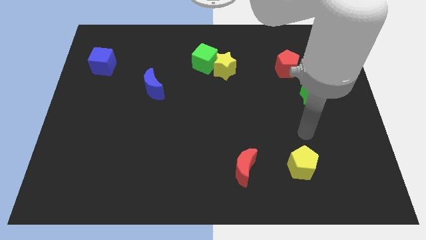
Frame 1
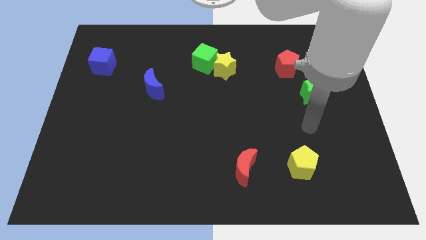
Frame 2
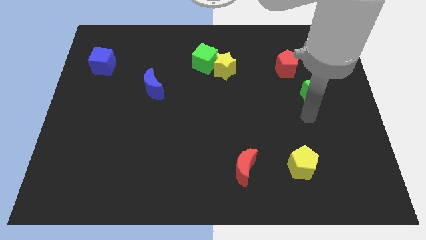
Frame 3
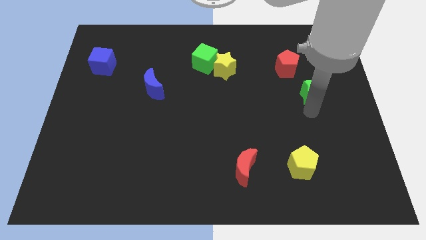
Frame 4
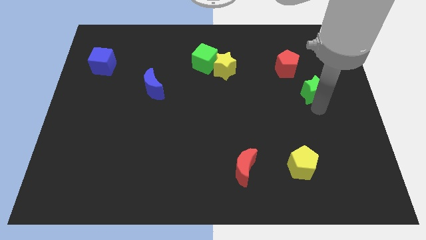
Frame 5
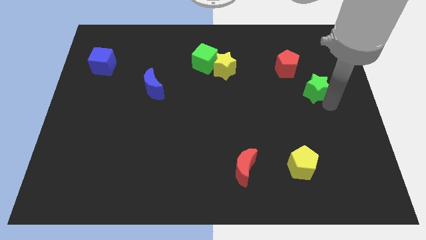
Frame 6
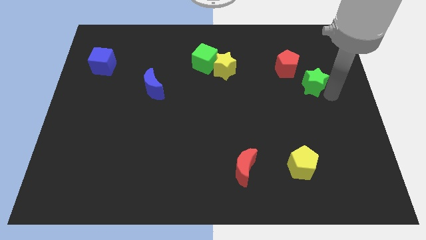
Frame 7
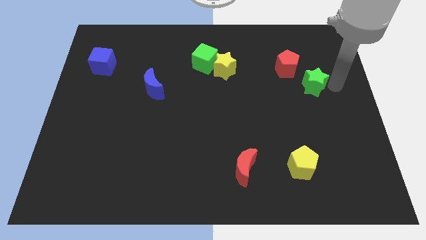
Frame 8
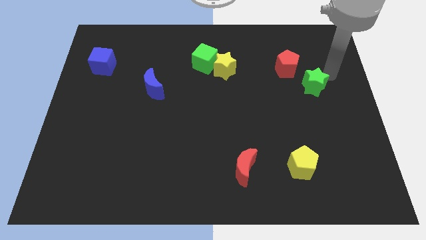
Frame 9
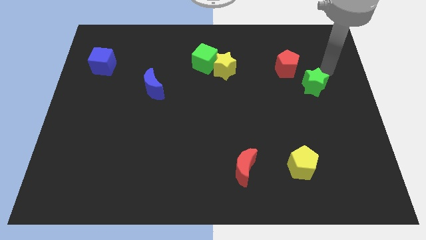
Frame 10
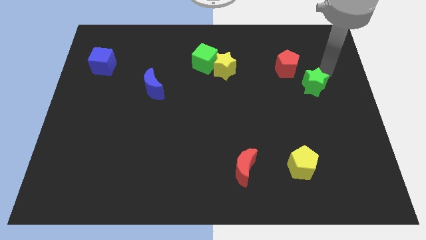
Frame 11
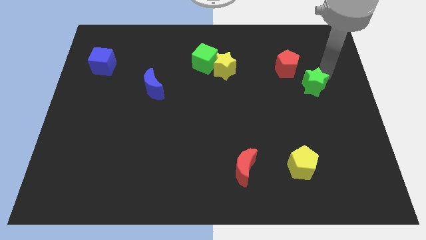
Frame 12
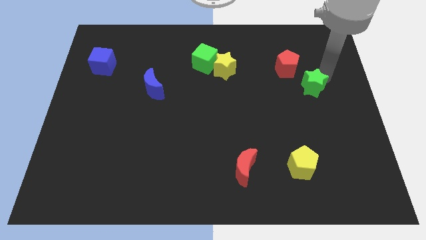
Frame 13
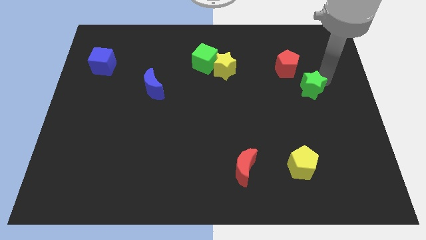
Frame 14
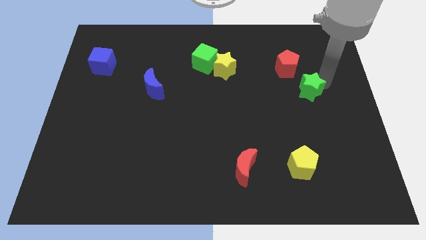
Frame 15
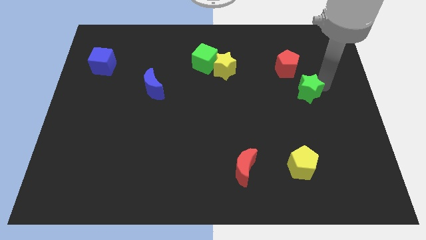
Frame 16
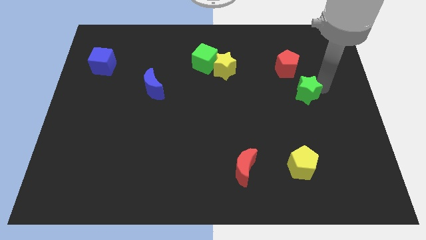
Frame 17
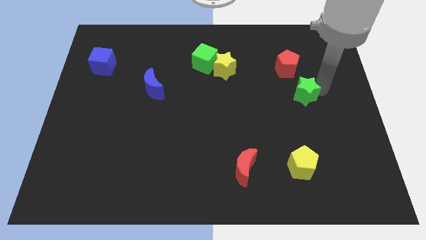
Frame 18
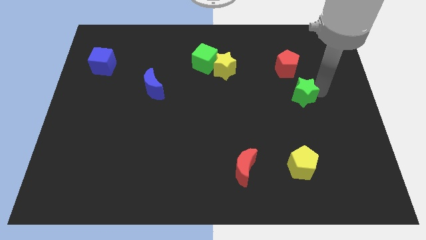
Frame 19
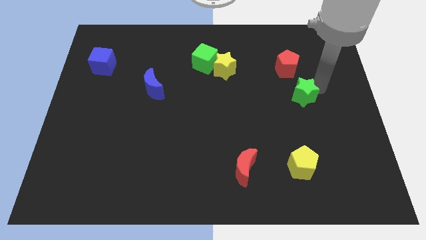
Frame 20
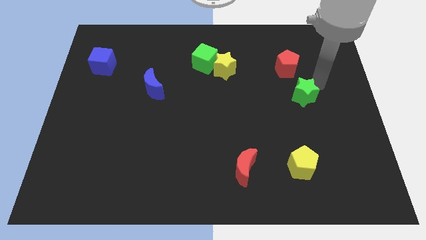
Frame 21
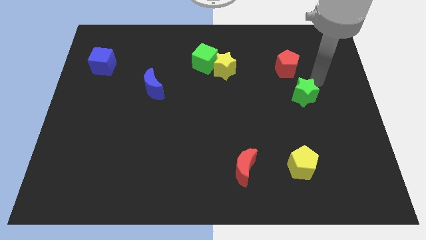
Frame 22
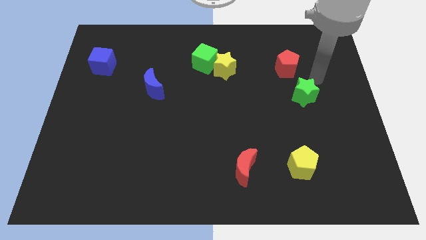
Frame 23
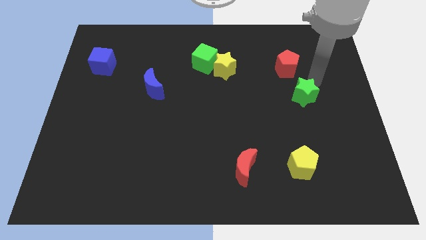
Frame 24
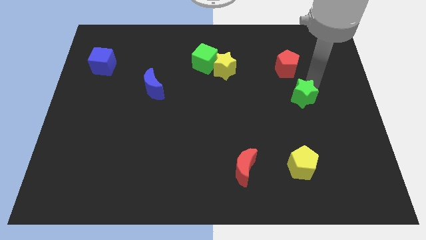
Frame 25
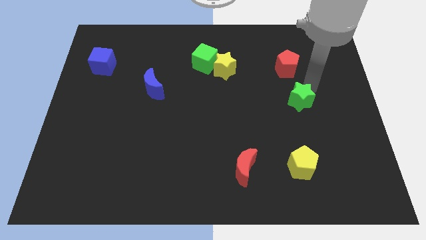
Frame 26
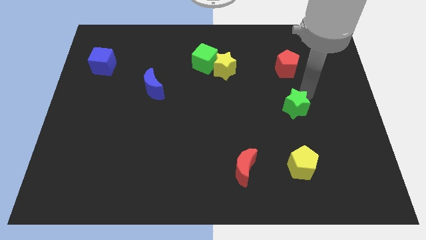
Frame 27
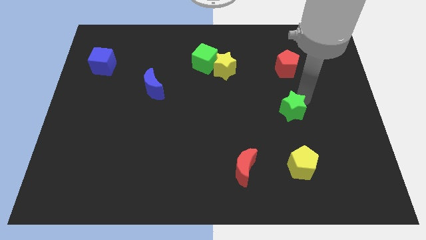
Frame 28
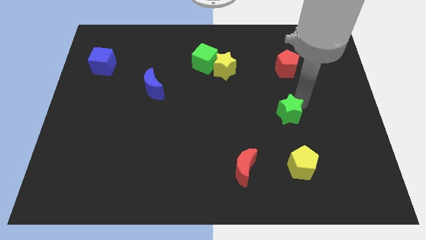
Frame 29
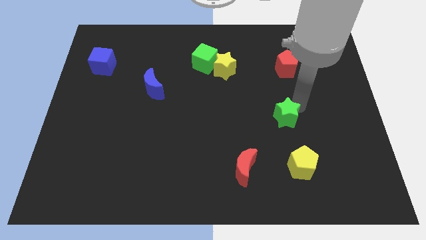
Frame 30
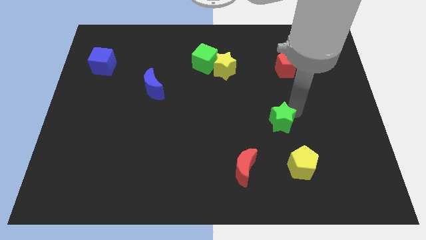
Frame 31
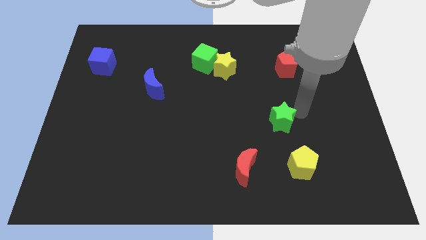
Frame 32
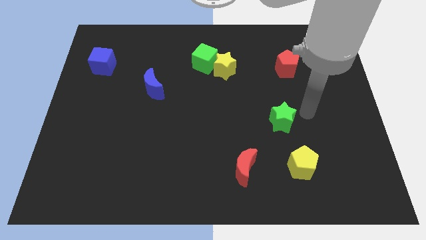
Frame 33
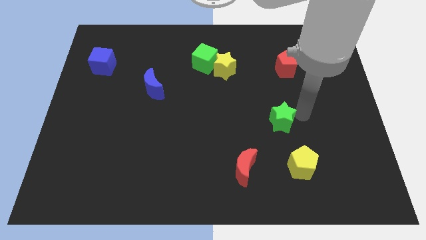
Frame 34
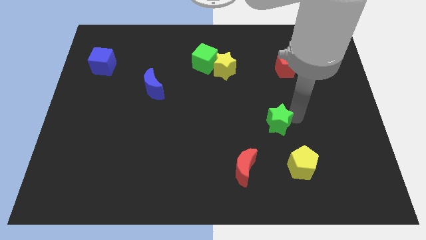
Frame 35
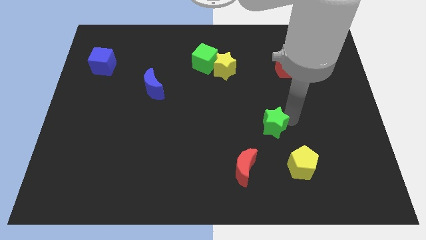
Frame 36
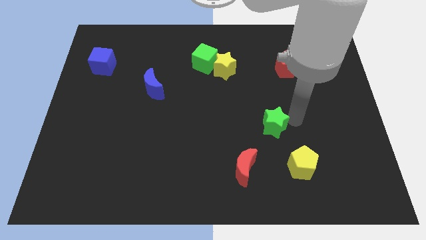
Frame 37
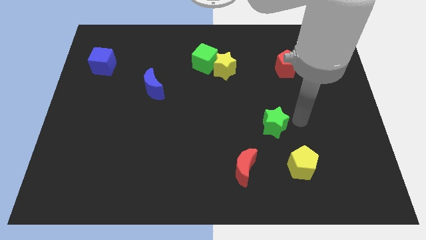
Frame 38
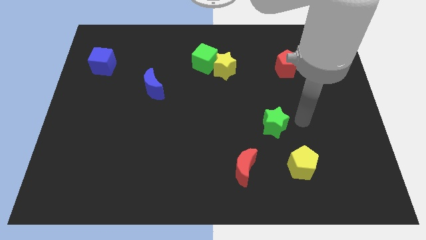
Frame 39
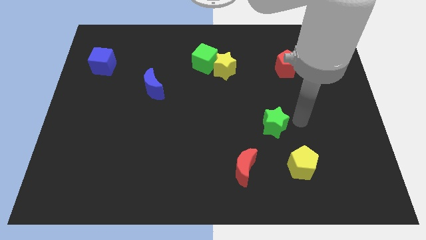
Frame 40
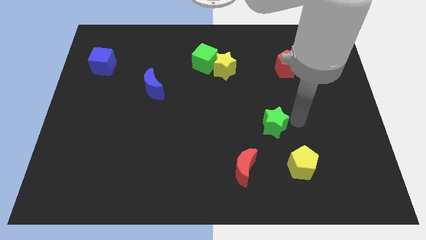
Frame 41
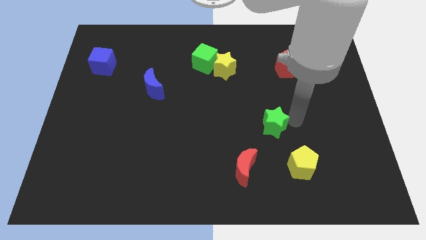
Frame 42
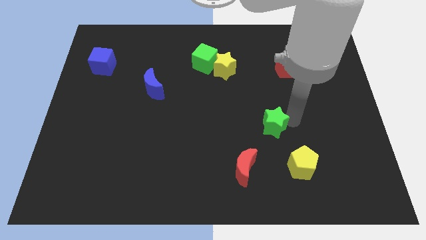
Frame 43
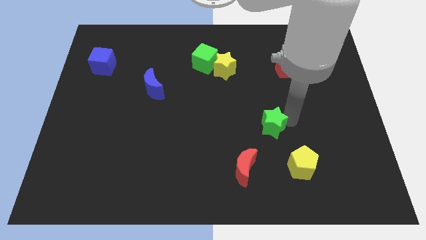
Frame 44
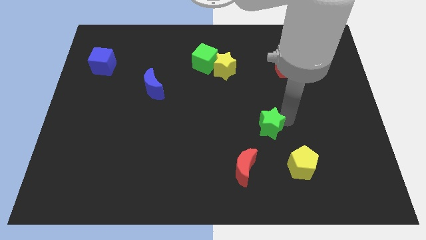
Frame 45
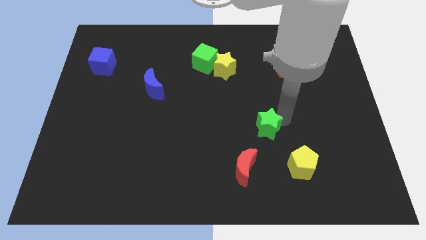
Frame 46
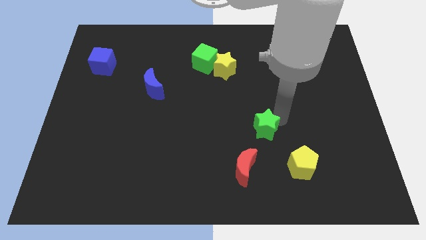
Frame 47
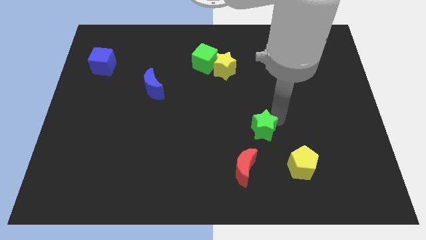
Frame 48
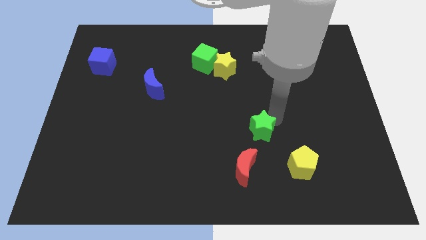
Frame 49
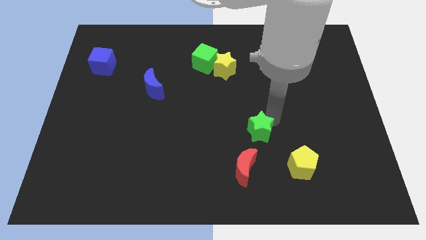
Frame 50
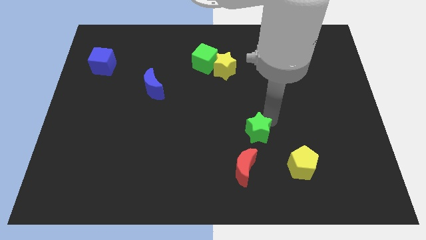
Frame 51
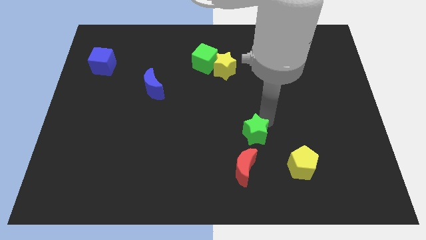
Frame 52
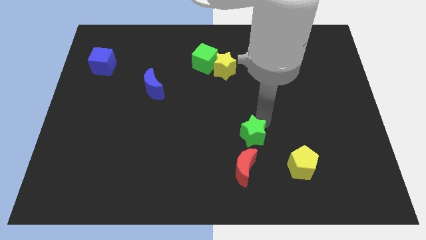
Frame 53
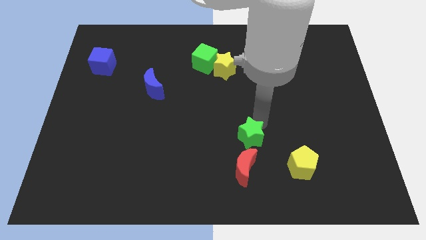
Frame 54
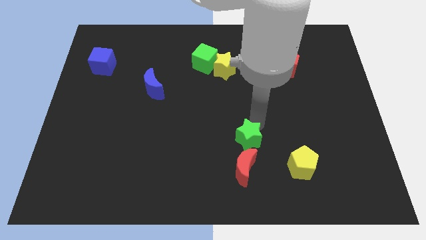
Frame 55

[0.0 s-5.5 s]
move the green star down and to the left

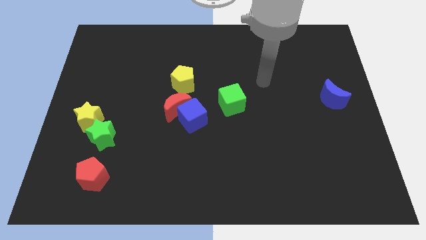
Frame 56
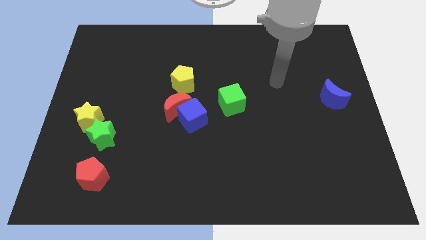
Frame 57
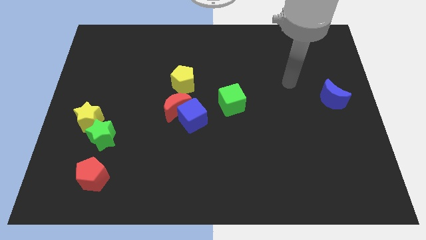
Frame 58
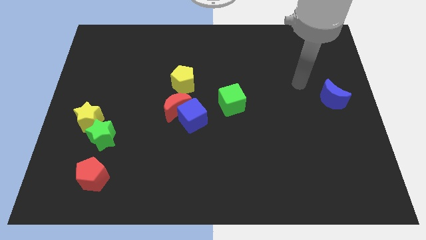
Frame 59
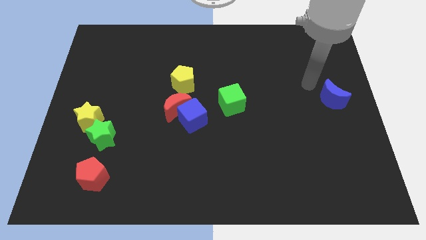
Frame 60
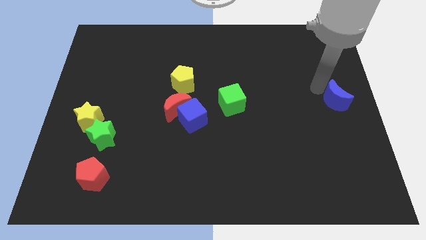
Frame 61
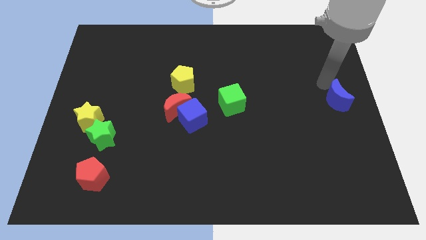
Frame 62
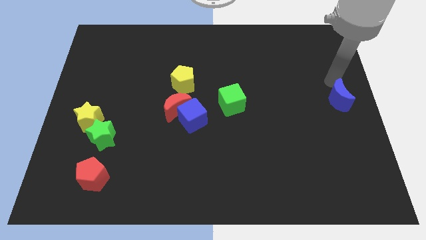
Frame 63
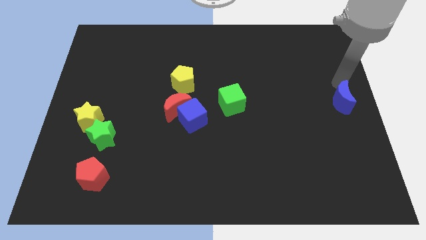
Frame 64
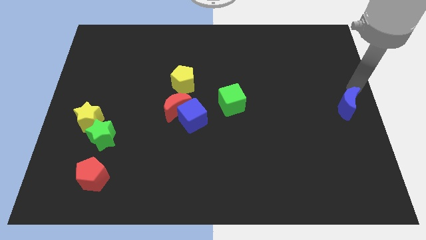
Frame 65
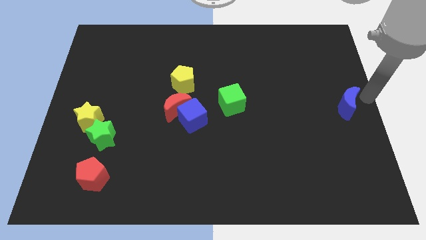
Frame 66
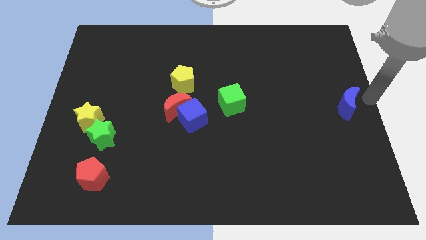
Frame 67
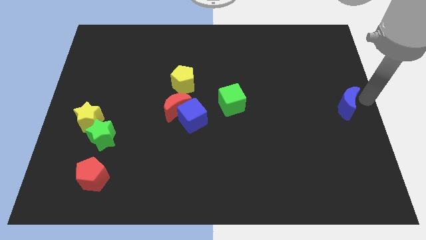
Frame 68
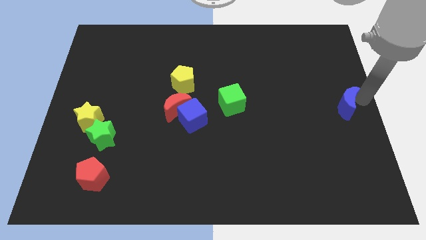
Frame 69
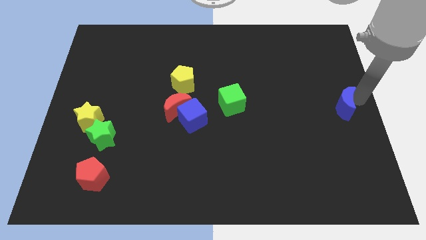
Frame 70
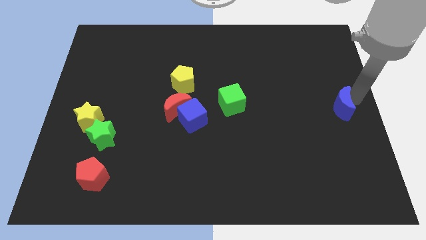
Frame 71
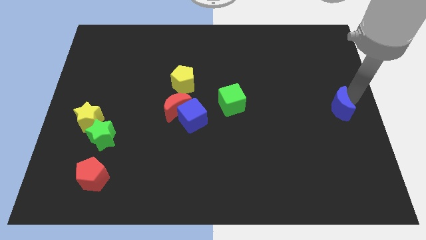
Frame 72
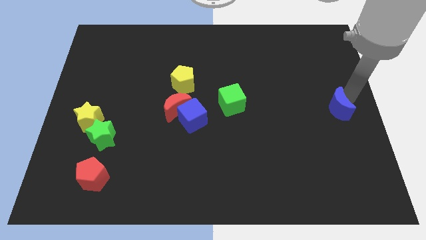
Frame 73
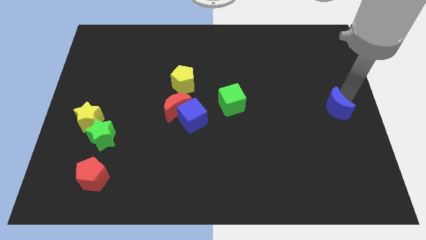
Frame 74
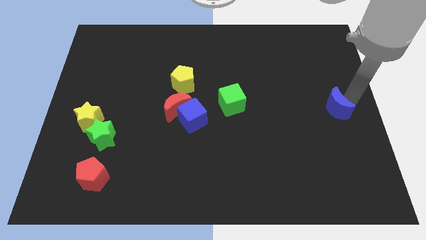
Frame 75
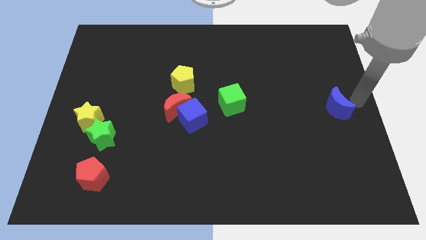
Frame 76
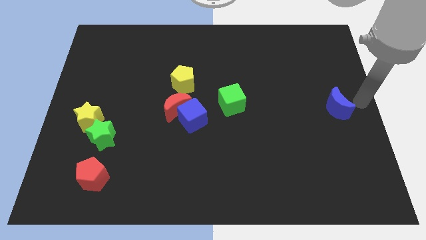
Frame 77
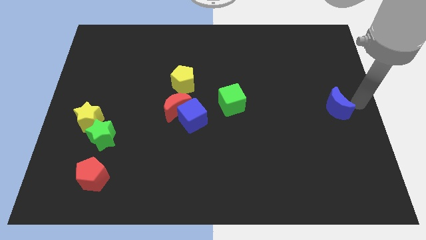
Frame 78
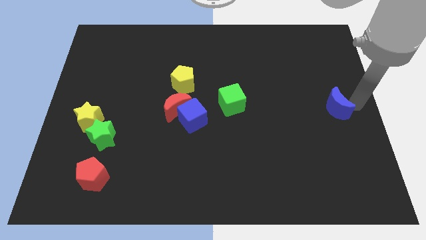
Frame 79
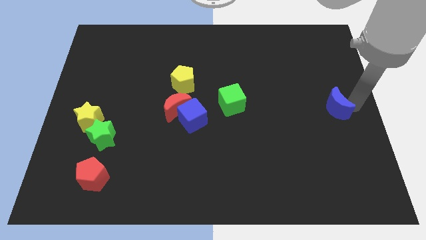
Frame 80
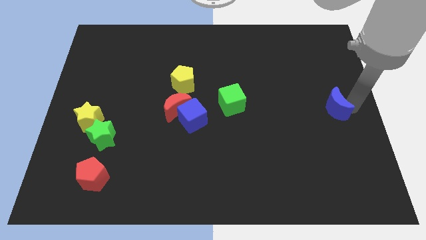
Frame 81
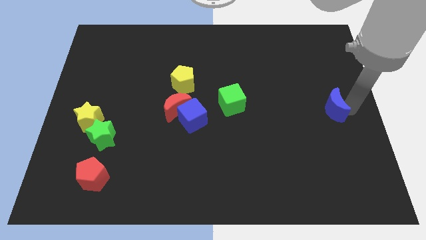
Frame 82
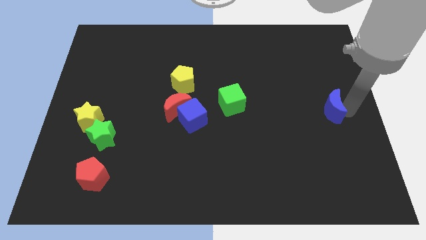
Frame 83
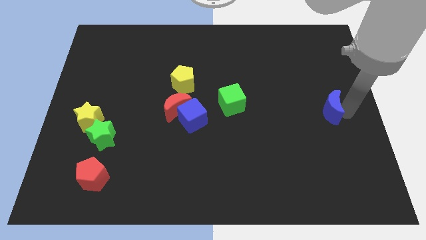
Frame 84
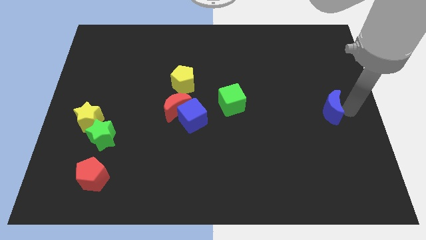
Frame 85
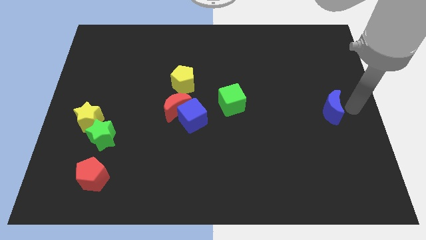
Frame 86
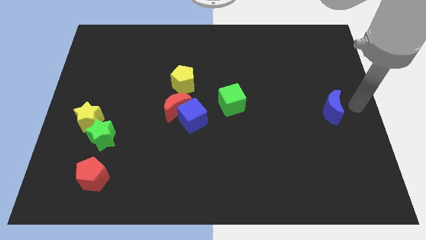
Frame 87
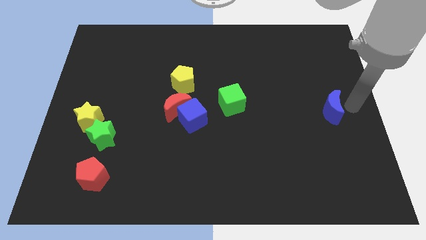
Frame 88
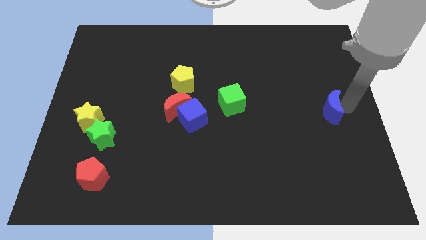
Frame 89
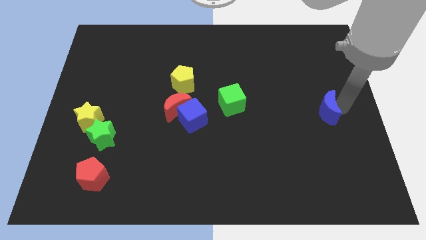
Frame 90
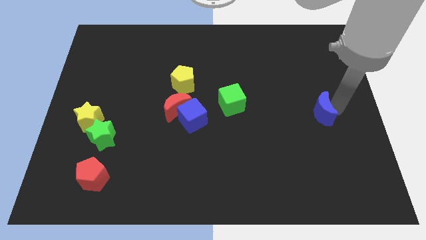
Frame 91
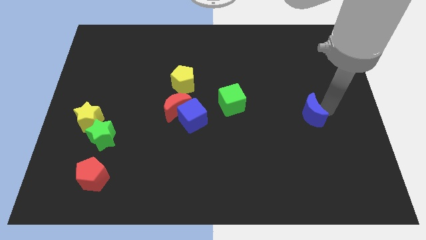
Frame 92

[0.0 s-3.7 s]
move the blue moon down and then to the left somewhat
